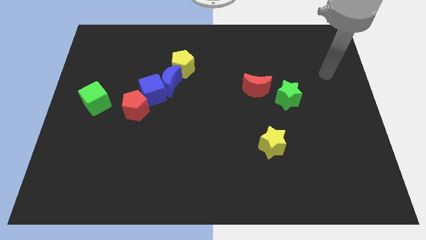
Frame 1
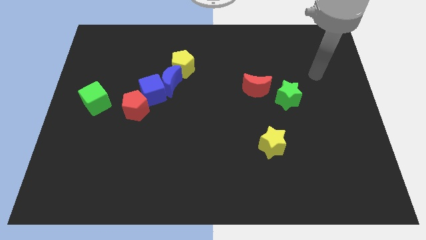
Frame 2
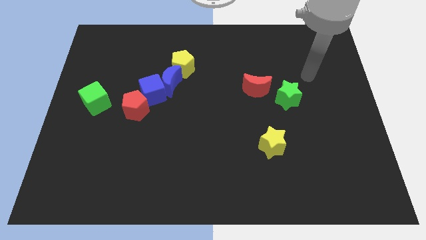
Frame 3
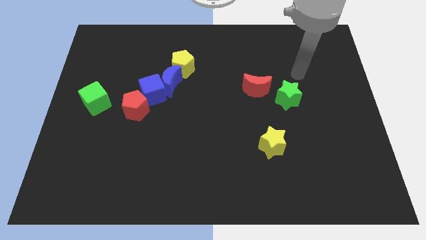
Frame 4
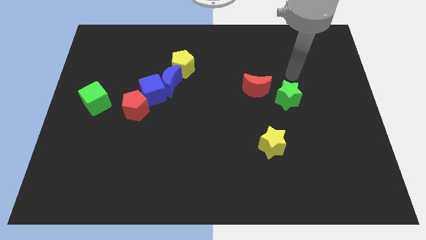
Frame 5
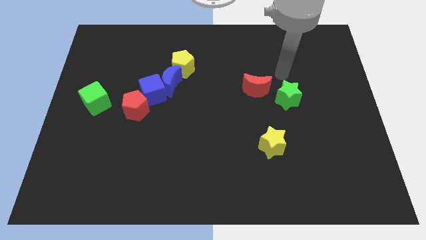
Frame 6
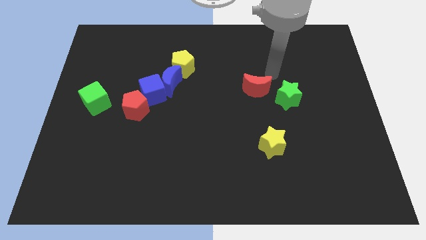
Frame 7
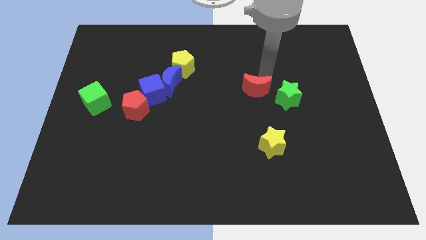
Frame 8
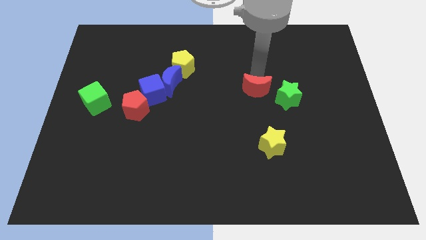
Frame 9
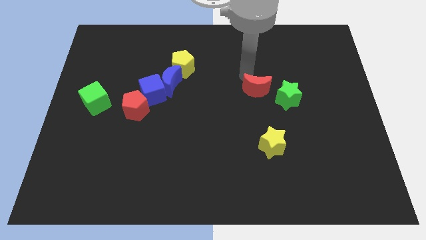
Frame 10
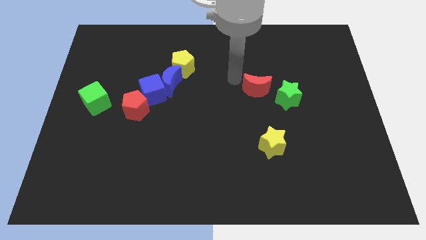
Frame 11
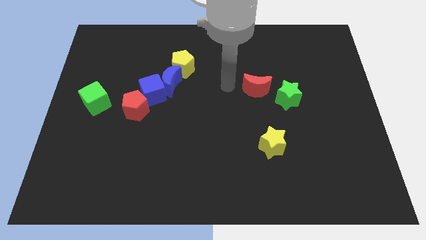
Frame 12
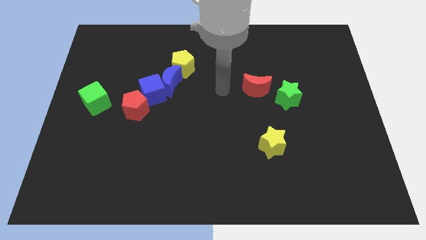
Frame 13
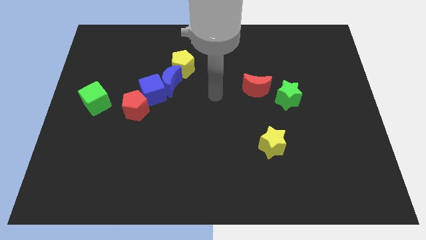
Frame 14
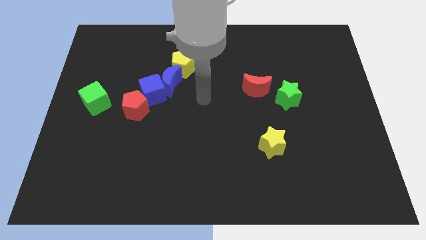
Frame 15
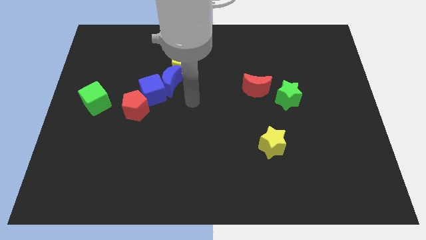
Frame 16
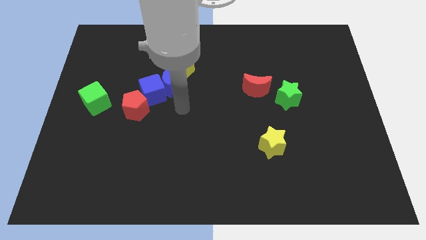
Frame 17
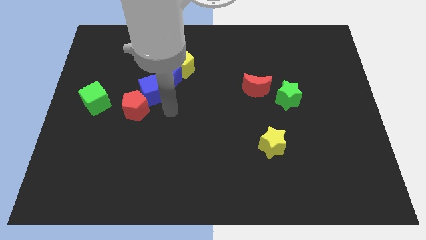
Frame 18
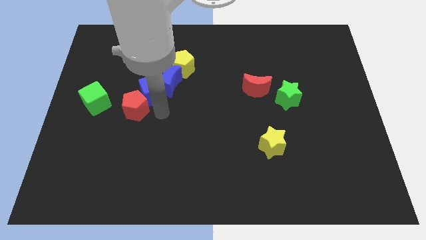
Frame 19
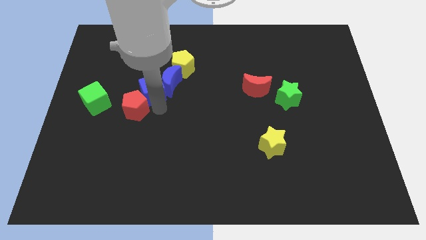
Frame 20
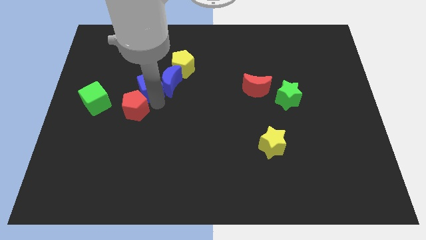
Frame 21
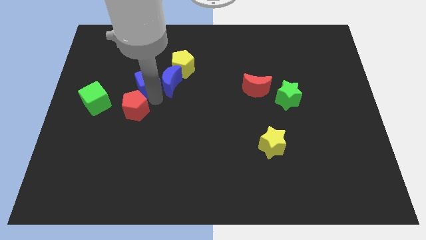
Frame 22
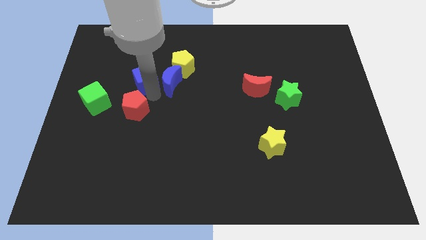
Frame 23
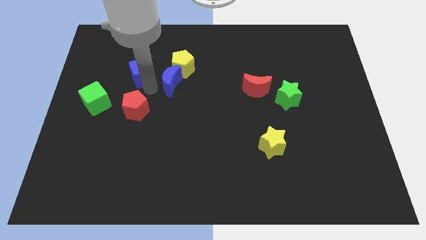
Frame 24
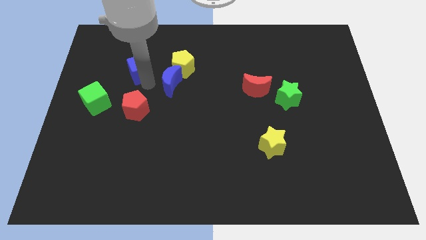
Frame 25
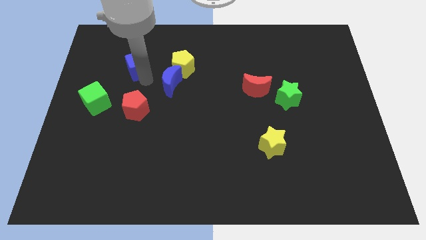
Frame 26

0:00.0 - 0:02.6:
move the blue cube away from the blue moon and red pentagon

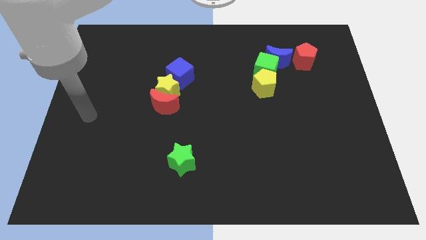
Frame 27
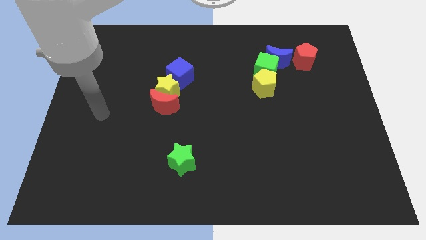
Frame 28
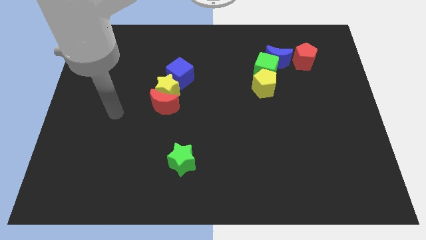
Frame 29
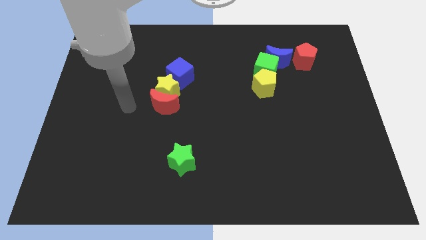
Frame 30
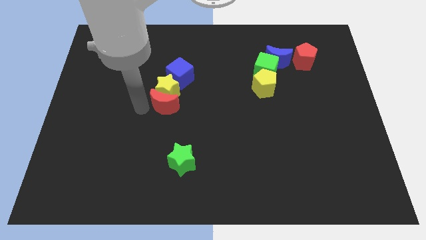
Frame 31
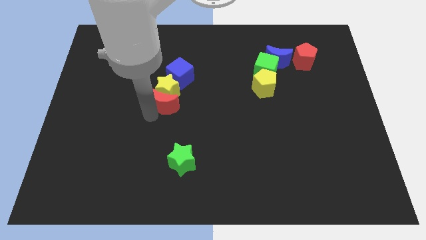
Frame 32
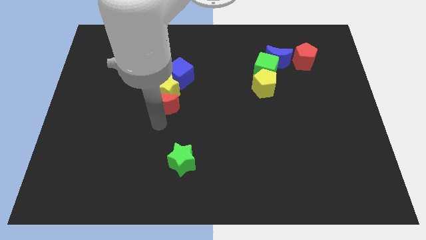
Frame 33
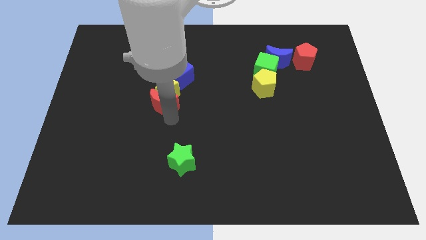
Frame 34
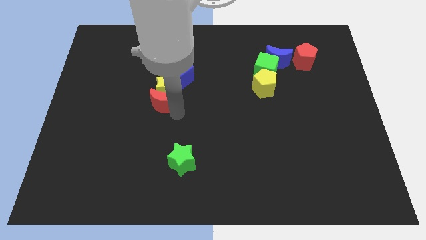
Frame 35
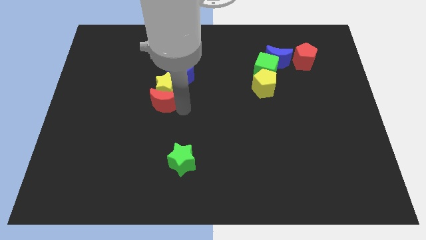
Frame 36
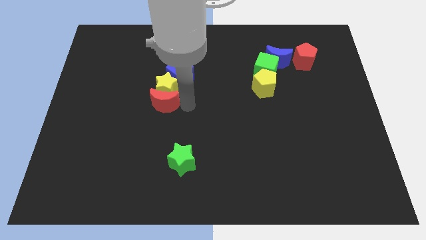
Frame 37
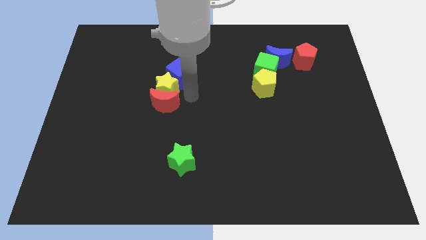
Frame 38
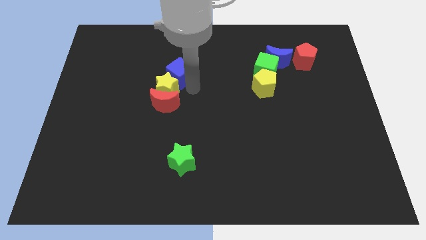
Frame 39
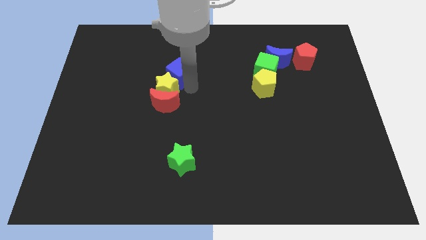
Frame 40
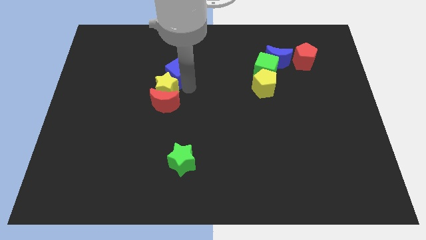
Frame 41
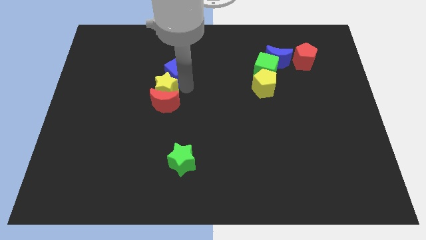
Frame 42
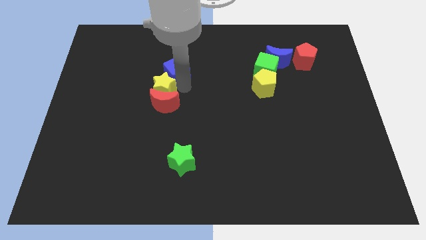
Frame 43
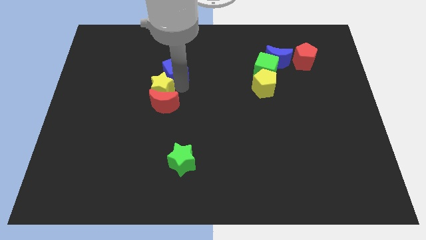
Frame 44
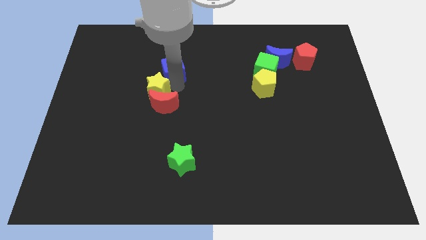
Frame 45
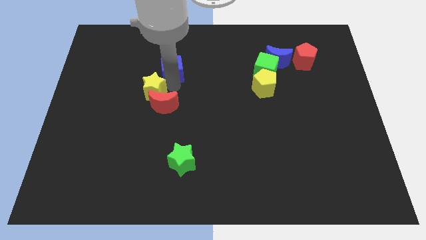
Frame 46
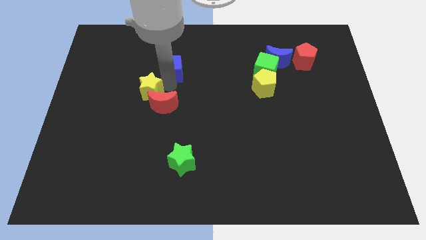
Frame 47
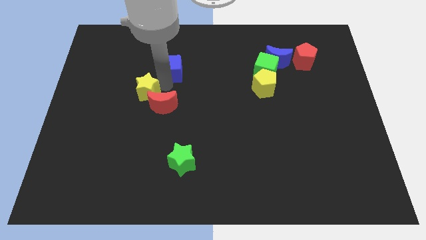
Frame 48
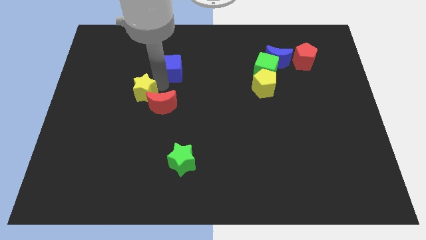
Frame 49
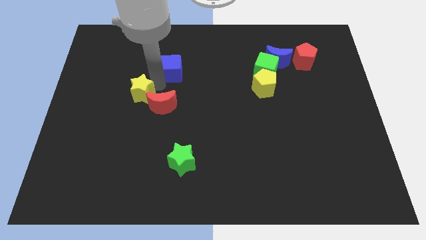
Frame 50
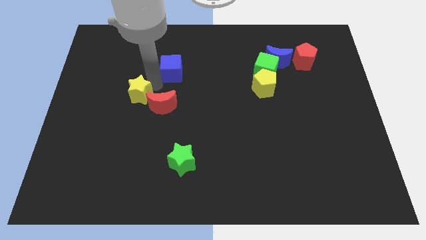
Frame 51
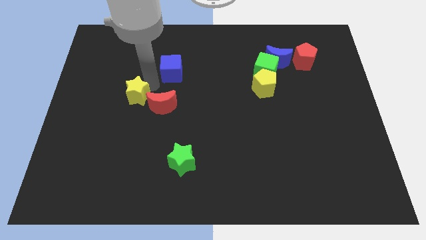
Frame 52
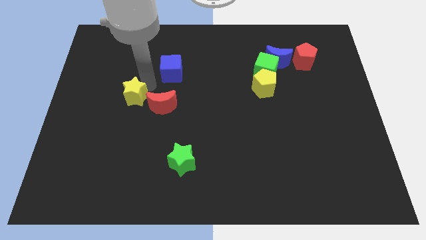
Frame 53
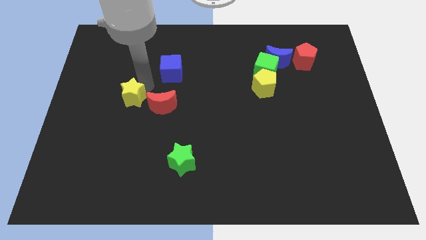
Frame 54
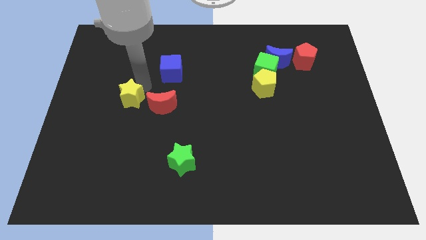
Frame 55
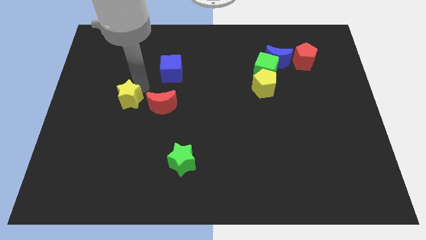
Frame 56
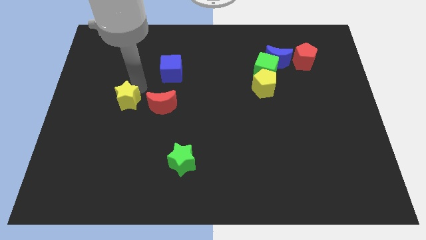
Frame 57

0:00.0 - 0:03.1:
pull the yellow star apart from the red moon and blue cube

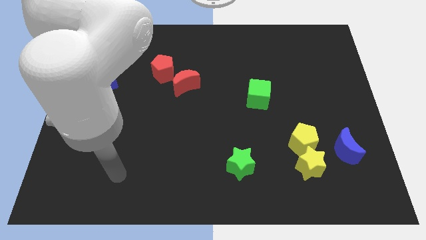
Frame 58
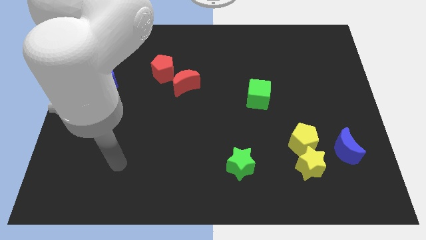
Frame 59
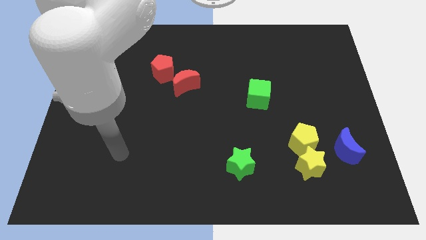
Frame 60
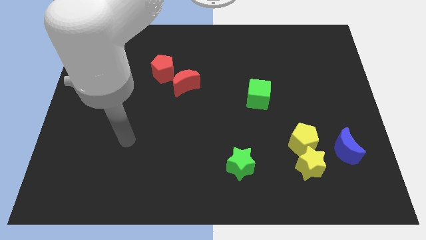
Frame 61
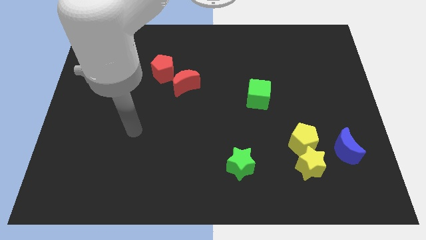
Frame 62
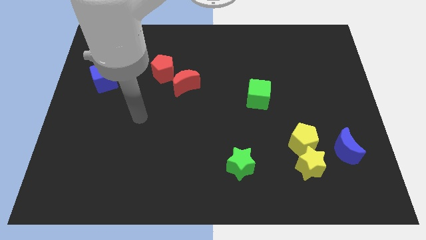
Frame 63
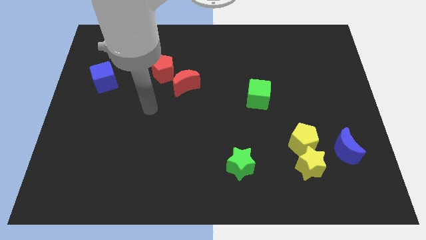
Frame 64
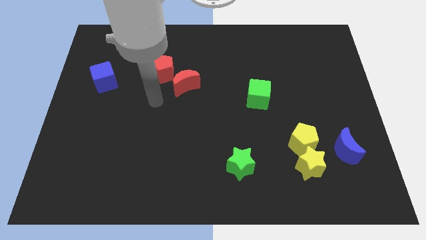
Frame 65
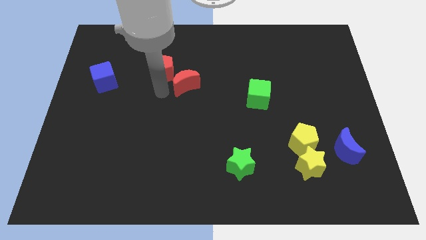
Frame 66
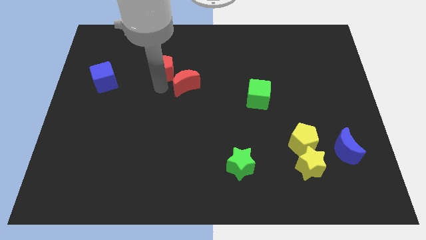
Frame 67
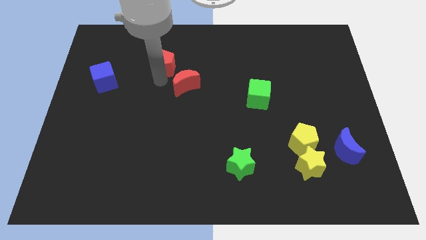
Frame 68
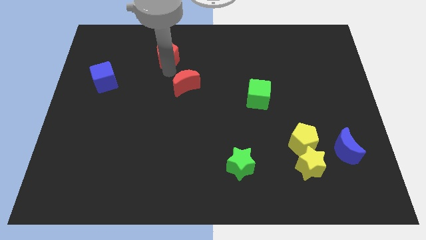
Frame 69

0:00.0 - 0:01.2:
separate the red moon from the red pentagon

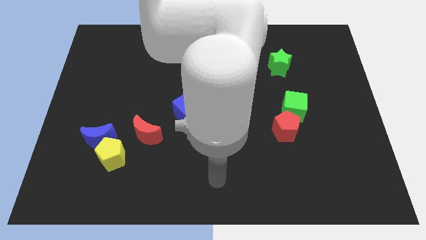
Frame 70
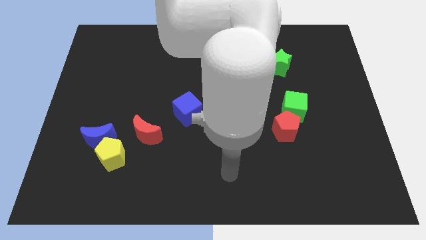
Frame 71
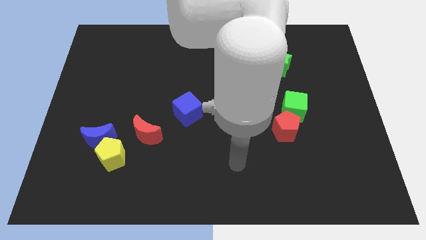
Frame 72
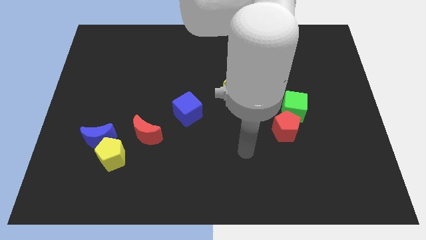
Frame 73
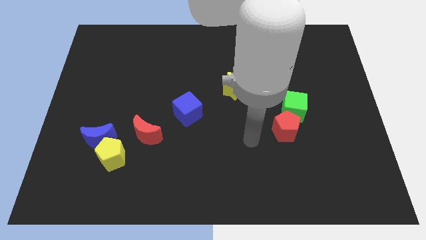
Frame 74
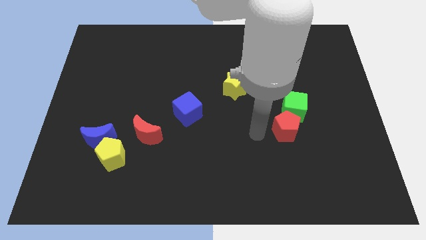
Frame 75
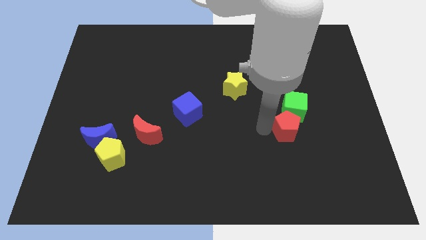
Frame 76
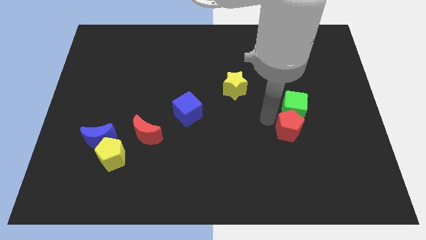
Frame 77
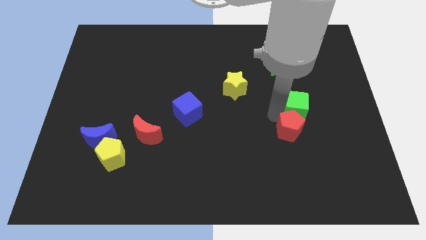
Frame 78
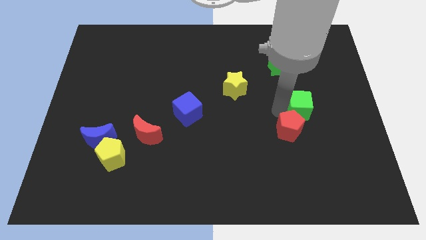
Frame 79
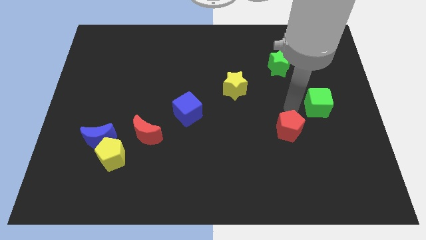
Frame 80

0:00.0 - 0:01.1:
separate the red pentagon from the green cube

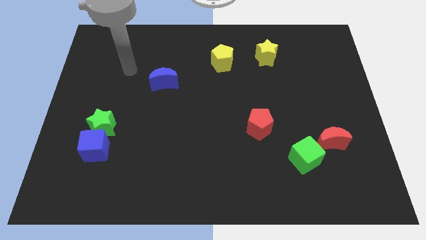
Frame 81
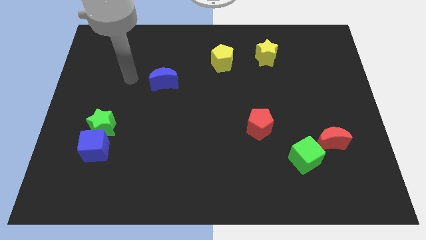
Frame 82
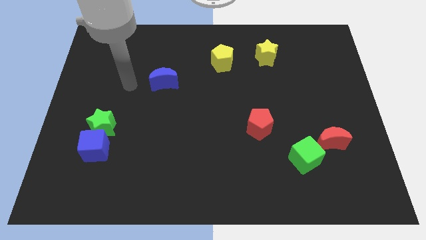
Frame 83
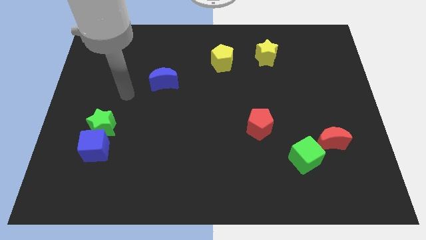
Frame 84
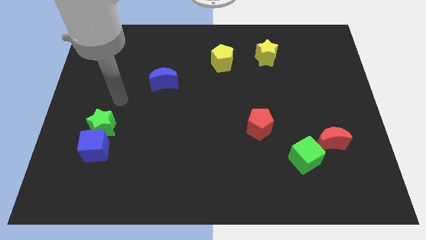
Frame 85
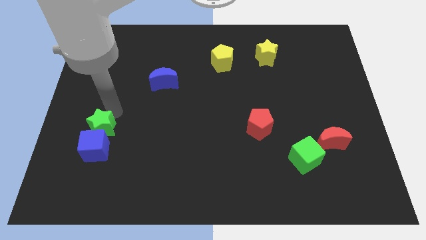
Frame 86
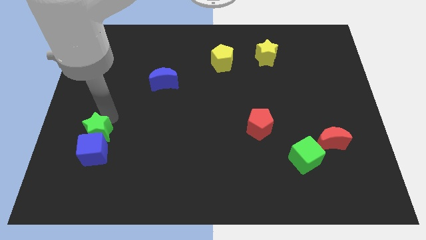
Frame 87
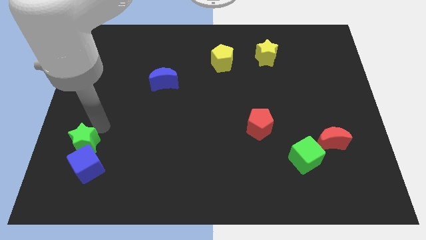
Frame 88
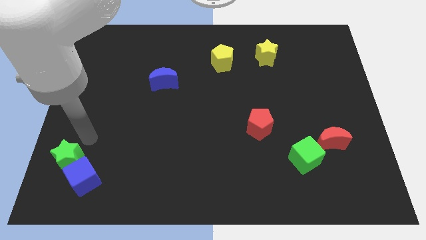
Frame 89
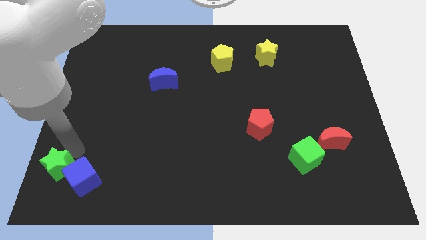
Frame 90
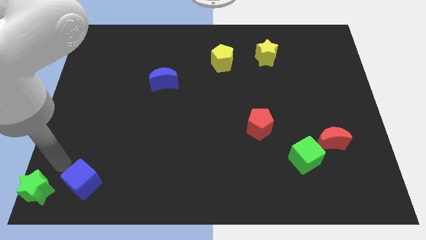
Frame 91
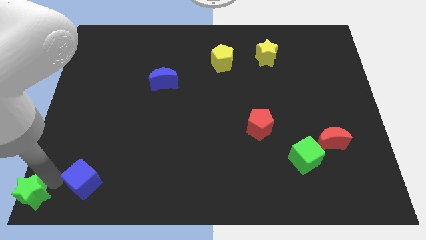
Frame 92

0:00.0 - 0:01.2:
move the blue cube away from the green star

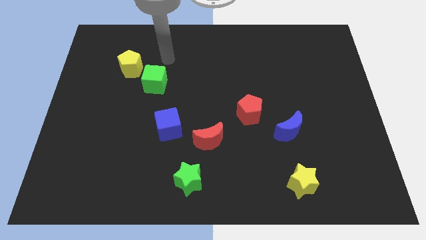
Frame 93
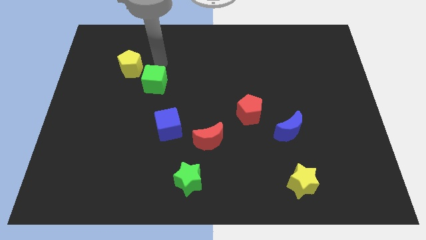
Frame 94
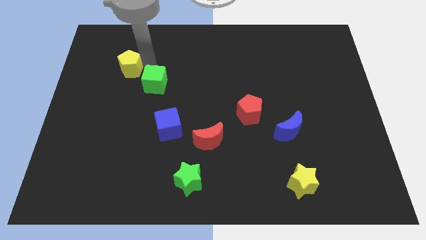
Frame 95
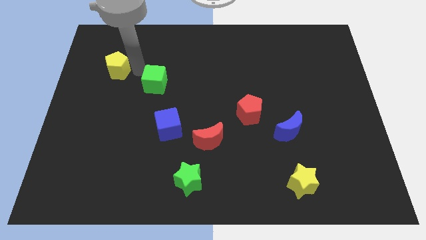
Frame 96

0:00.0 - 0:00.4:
separate the green cube from the yellow pentagon
